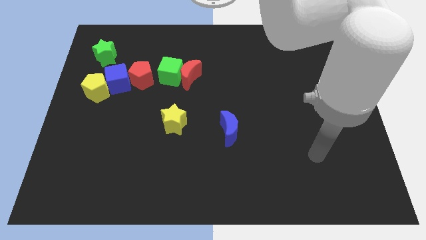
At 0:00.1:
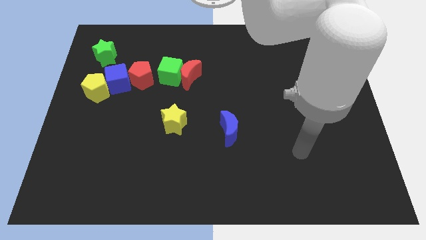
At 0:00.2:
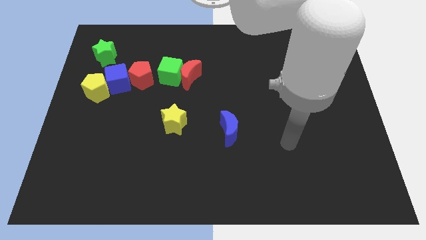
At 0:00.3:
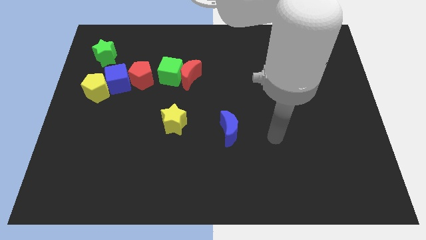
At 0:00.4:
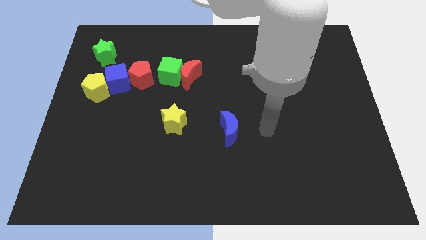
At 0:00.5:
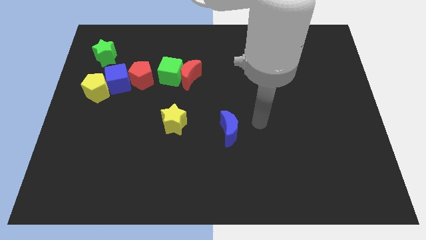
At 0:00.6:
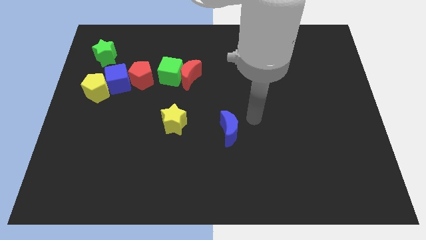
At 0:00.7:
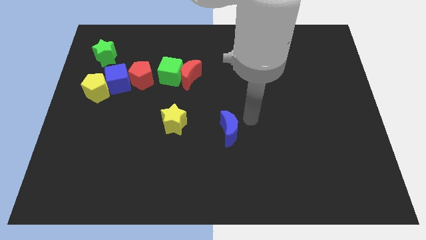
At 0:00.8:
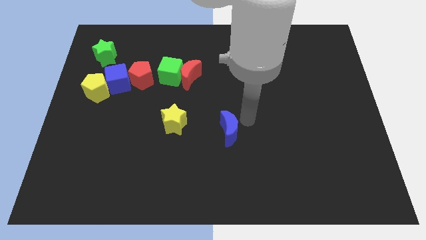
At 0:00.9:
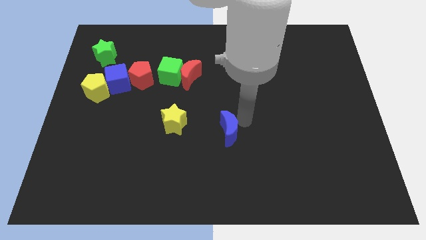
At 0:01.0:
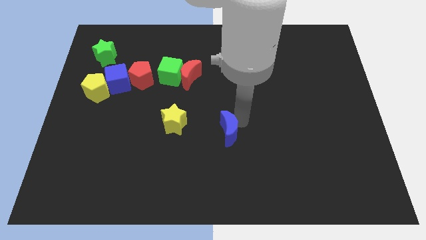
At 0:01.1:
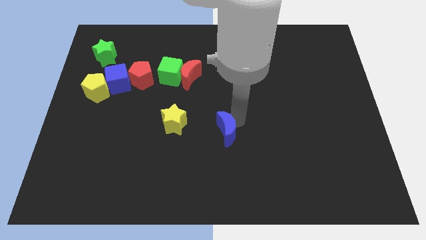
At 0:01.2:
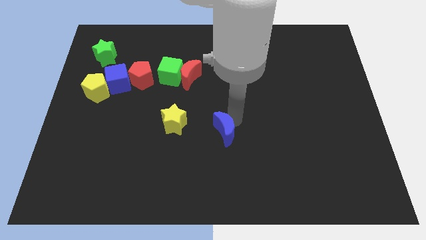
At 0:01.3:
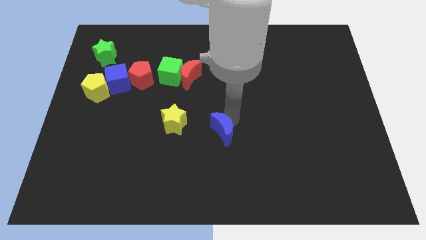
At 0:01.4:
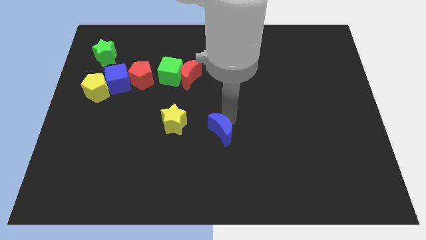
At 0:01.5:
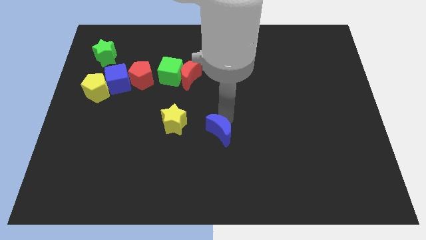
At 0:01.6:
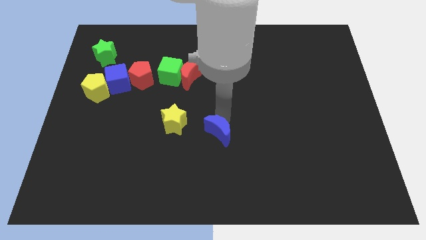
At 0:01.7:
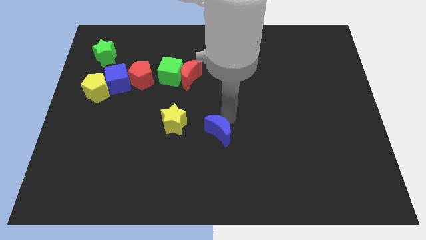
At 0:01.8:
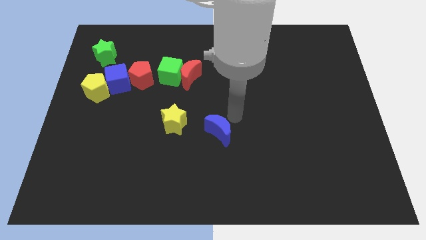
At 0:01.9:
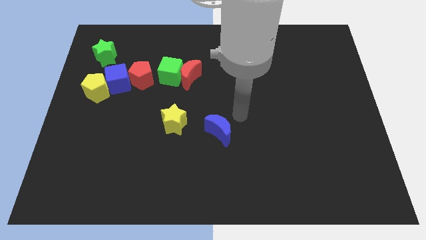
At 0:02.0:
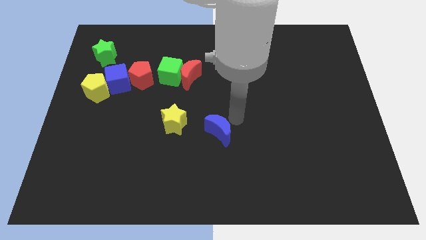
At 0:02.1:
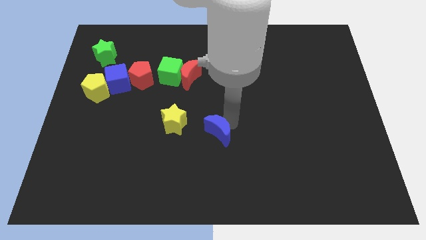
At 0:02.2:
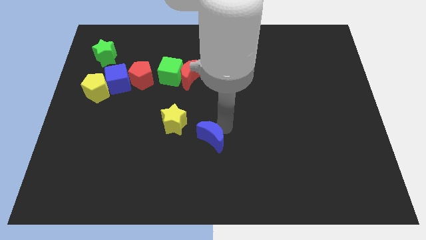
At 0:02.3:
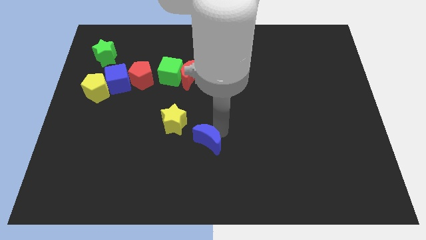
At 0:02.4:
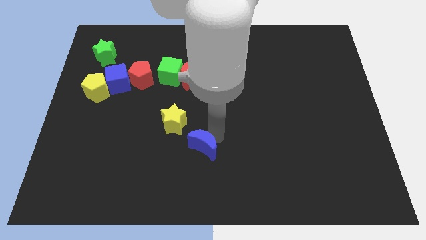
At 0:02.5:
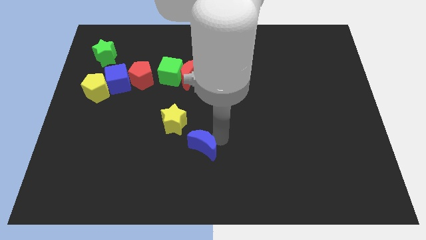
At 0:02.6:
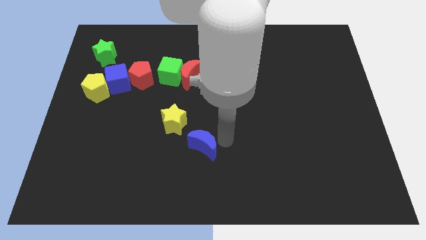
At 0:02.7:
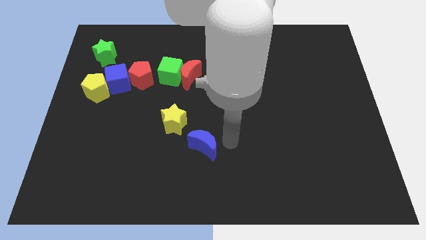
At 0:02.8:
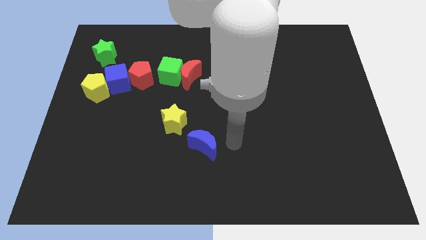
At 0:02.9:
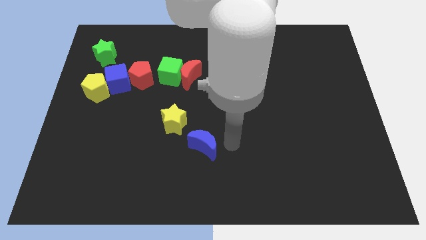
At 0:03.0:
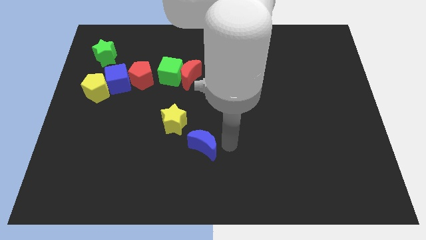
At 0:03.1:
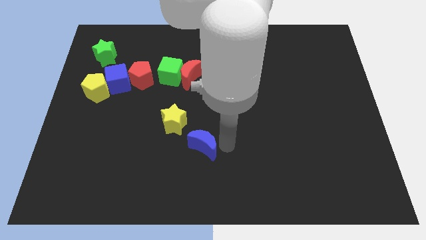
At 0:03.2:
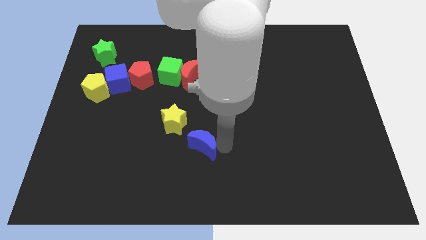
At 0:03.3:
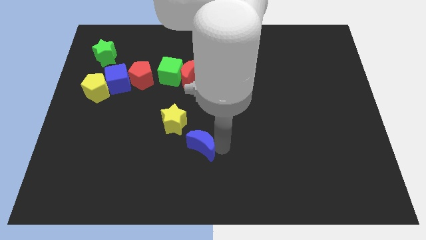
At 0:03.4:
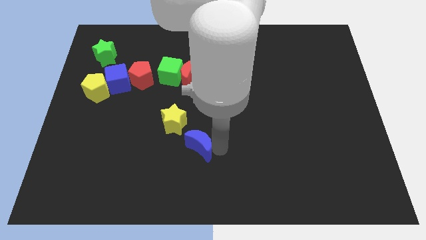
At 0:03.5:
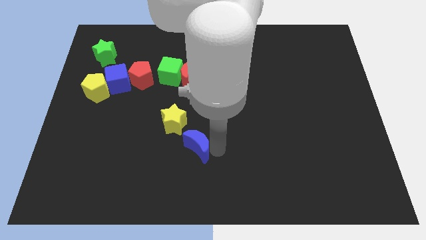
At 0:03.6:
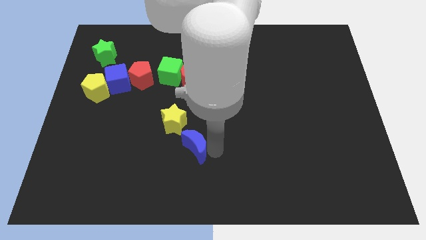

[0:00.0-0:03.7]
slightly slide the blue moon left

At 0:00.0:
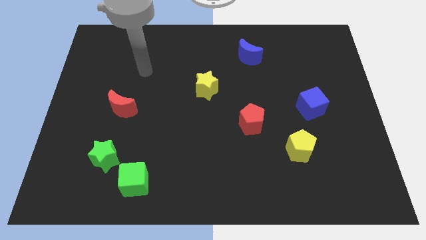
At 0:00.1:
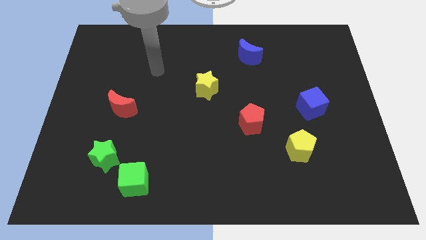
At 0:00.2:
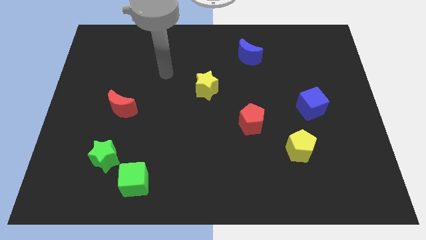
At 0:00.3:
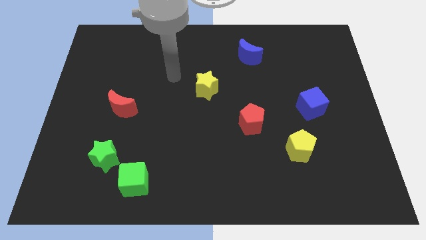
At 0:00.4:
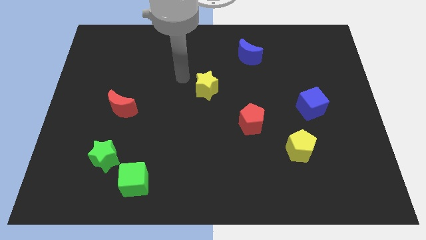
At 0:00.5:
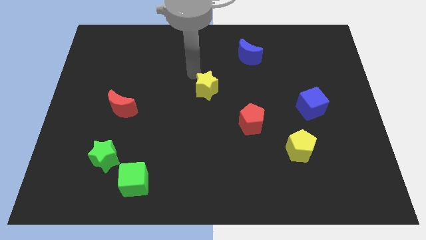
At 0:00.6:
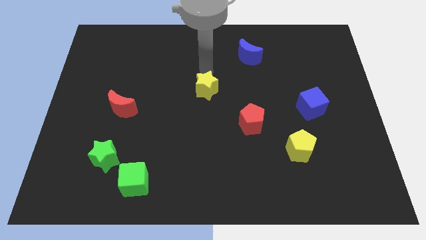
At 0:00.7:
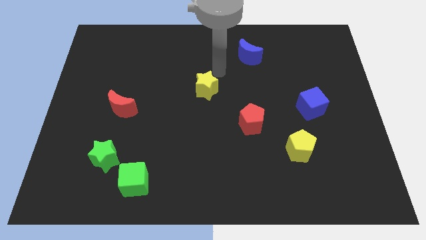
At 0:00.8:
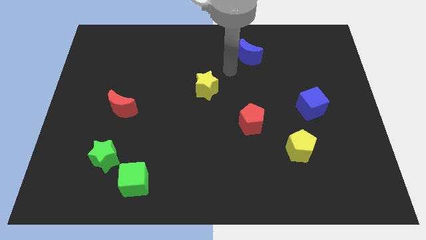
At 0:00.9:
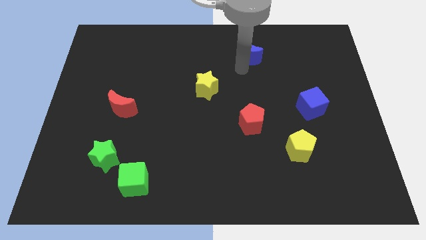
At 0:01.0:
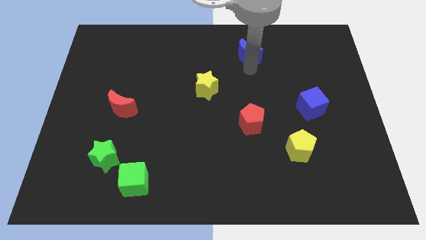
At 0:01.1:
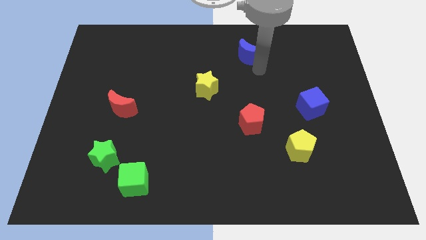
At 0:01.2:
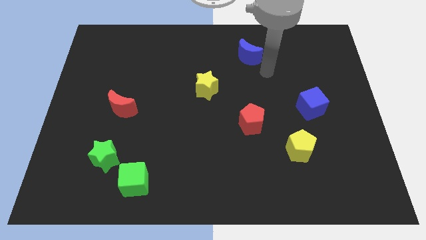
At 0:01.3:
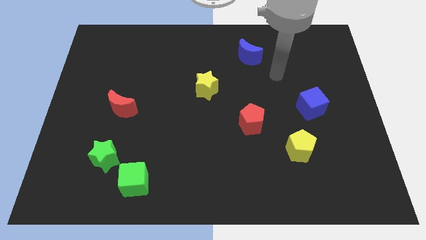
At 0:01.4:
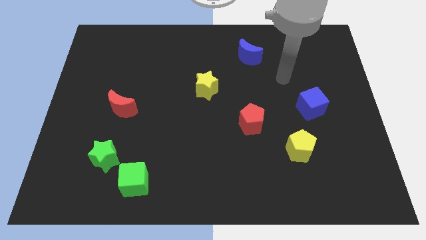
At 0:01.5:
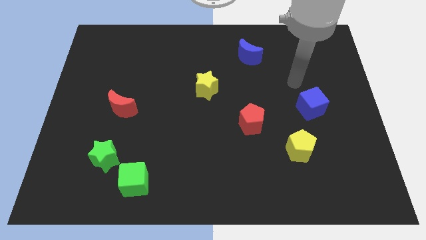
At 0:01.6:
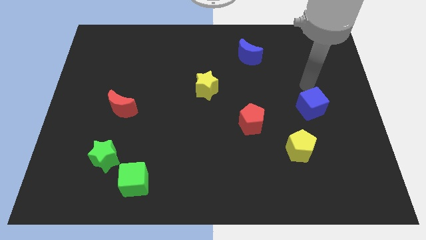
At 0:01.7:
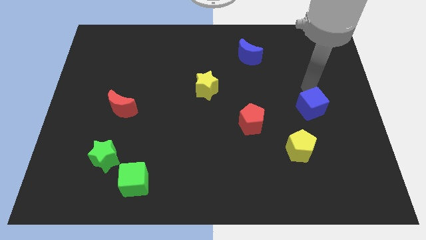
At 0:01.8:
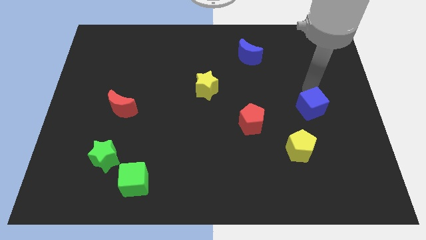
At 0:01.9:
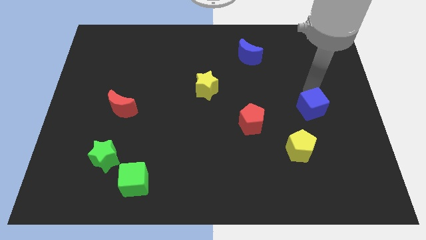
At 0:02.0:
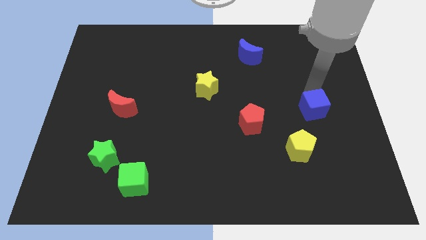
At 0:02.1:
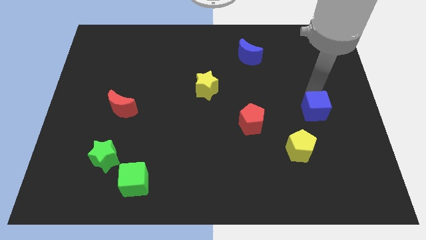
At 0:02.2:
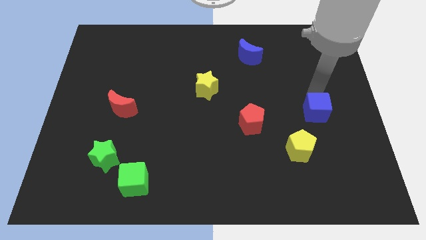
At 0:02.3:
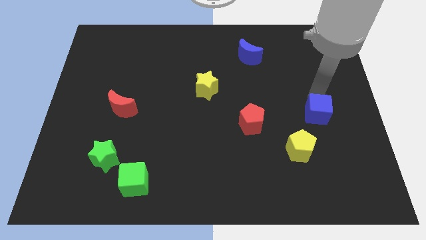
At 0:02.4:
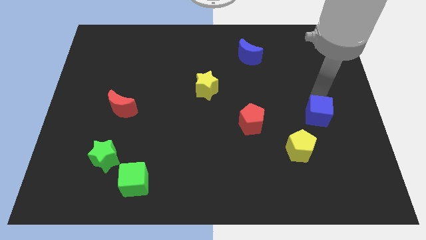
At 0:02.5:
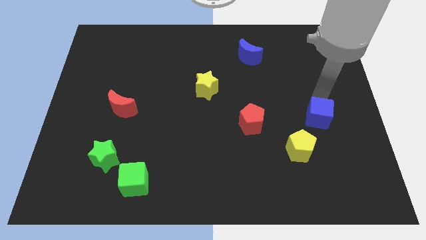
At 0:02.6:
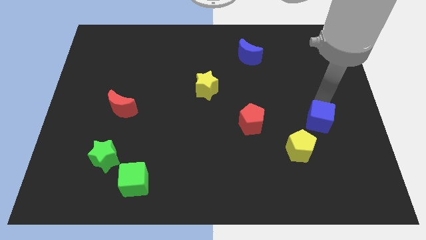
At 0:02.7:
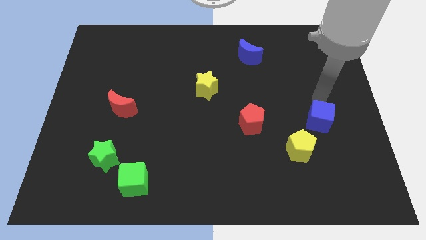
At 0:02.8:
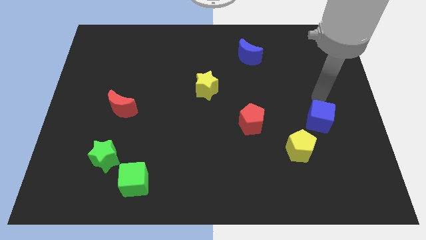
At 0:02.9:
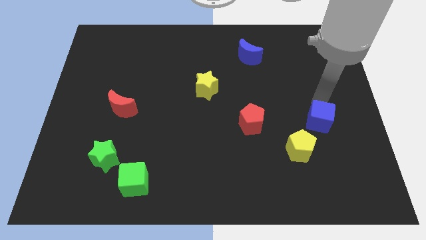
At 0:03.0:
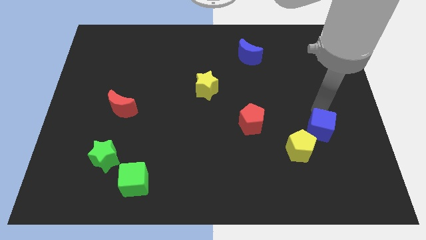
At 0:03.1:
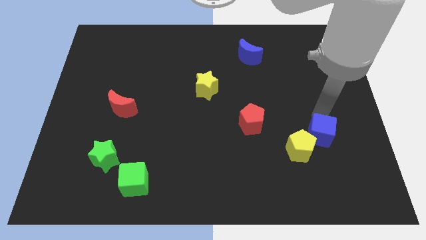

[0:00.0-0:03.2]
move the blue cube down a bit

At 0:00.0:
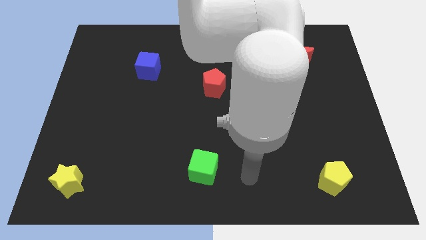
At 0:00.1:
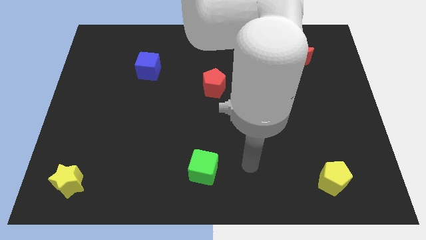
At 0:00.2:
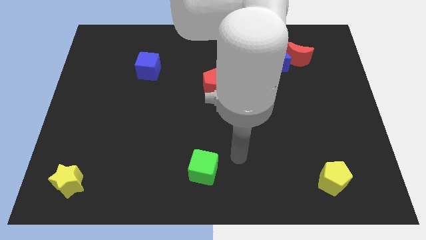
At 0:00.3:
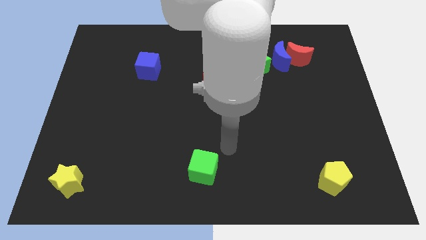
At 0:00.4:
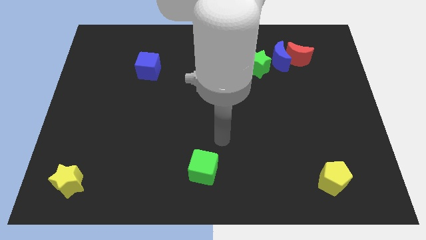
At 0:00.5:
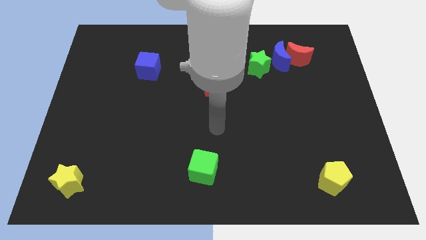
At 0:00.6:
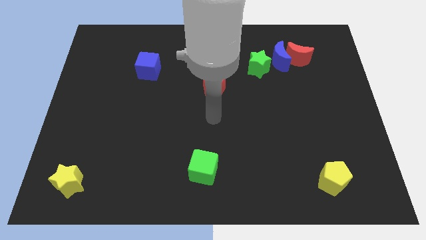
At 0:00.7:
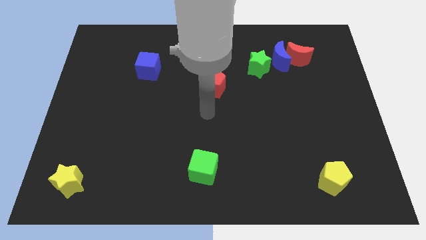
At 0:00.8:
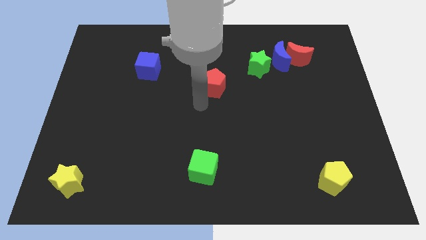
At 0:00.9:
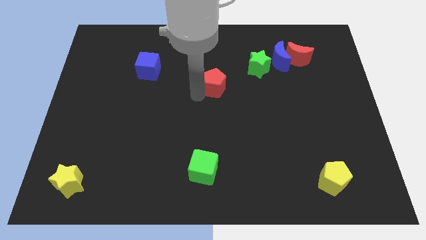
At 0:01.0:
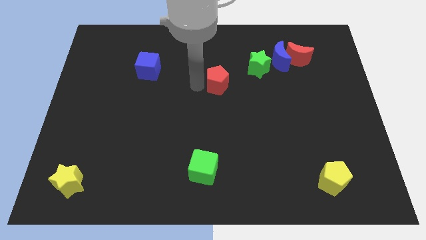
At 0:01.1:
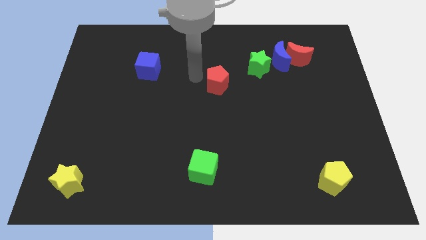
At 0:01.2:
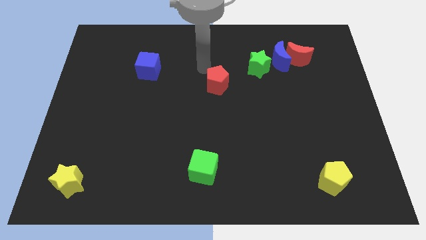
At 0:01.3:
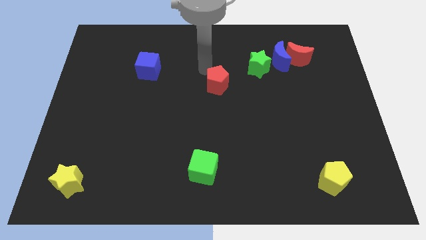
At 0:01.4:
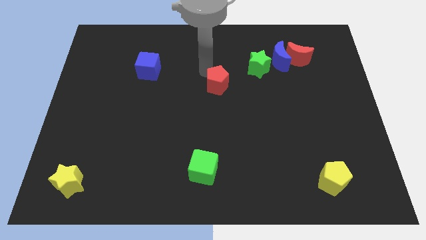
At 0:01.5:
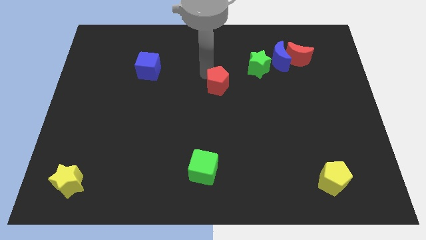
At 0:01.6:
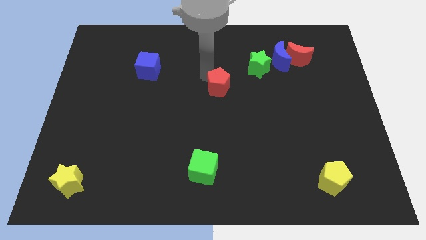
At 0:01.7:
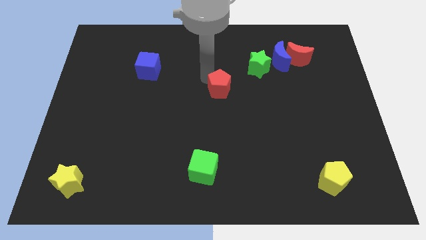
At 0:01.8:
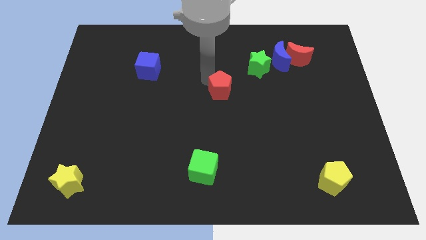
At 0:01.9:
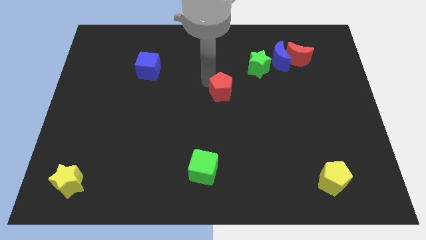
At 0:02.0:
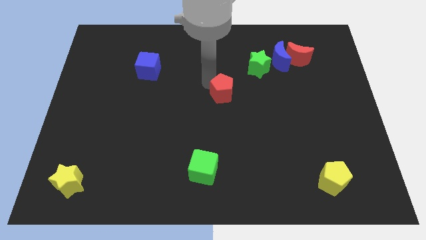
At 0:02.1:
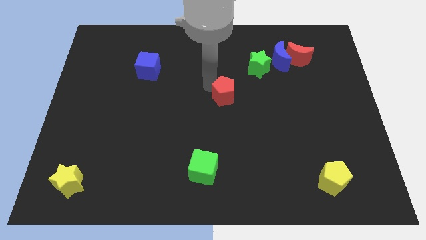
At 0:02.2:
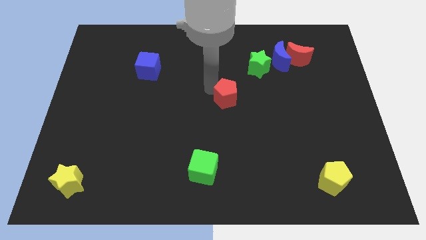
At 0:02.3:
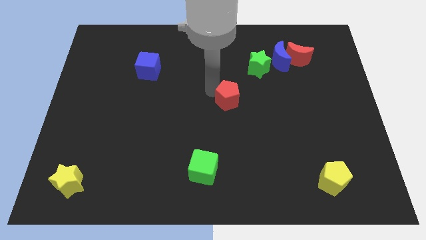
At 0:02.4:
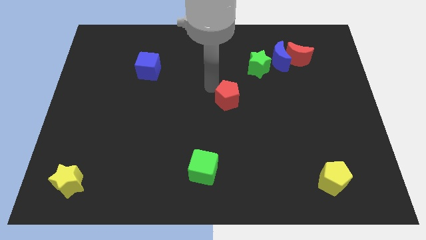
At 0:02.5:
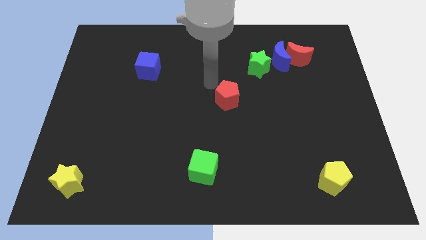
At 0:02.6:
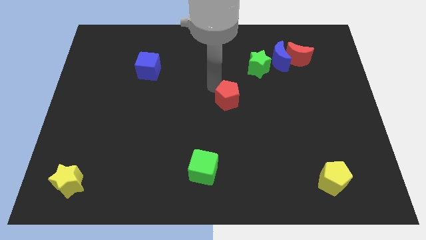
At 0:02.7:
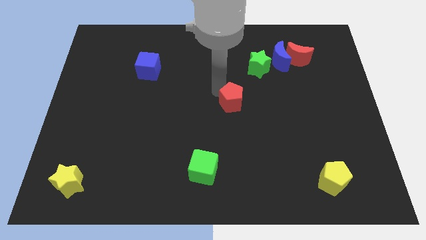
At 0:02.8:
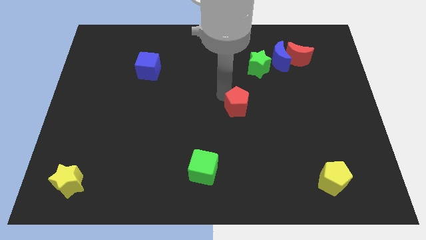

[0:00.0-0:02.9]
push the red pentagon a little down and right
